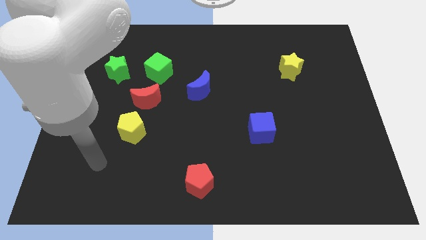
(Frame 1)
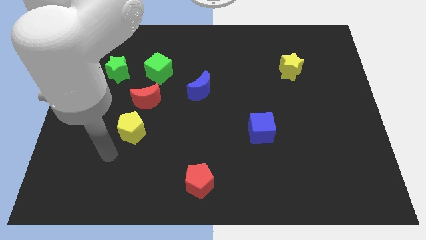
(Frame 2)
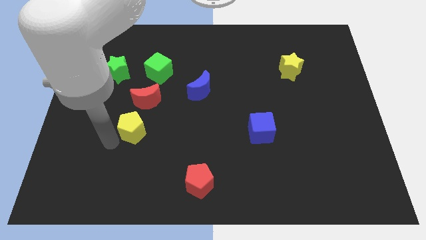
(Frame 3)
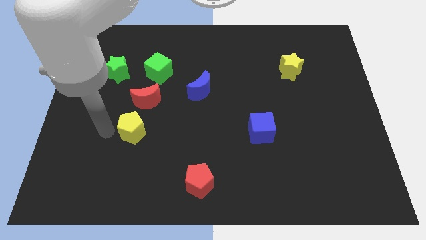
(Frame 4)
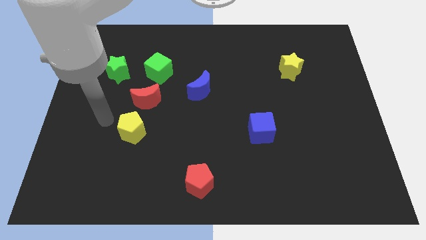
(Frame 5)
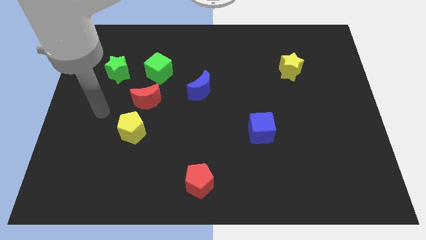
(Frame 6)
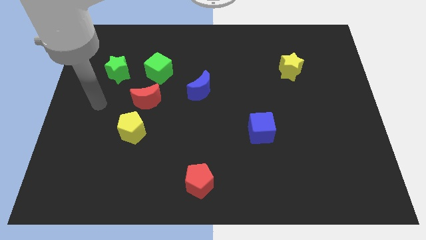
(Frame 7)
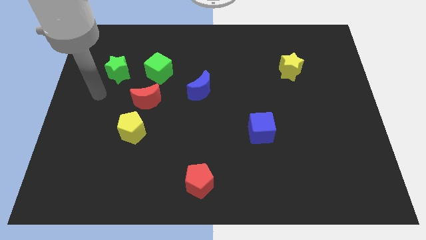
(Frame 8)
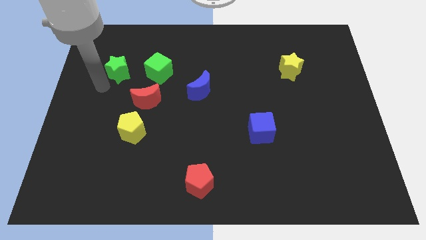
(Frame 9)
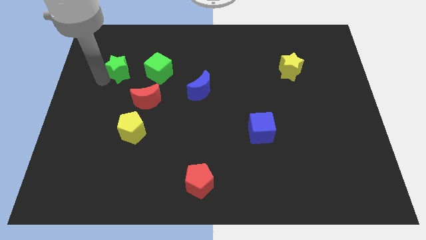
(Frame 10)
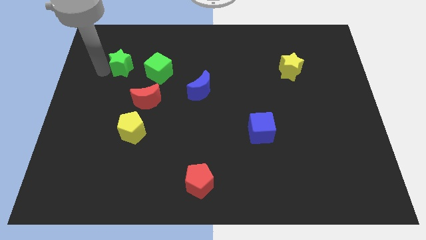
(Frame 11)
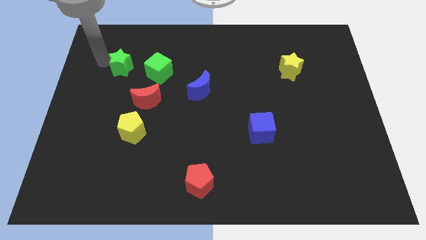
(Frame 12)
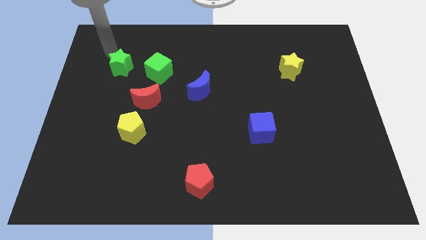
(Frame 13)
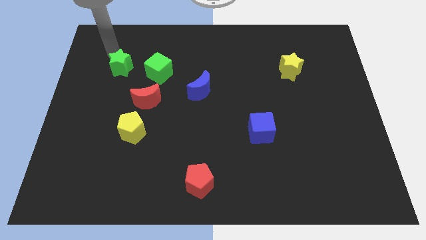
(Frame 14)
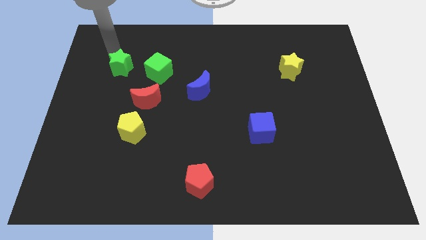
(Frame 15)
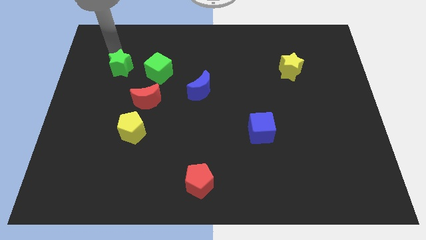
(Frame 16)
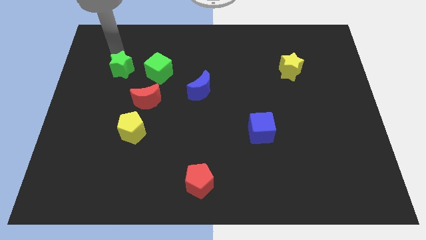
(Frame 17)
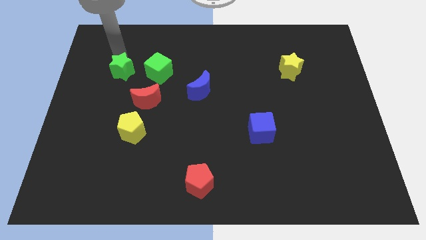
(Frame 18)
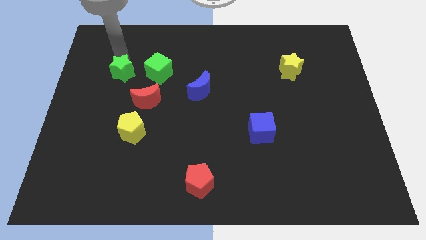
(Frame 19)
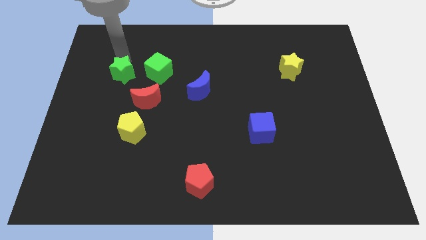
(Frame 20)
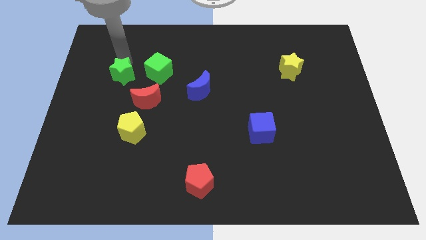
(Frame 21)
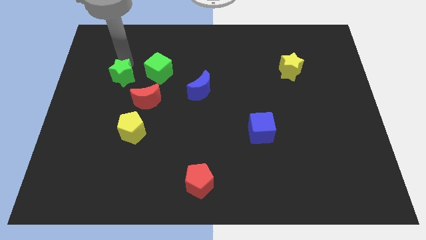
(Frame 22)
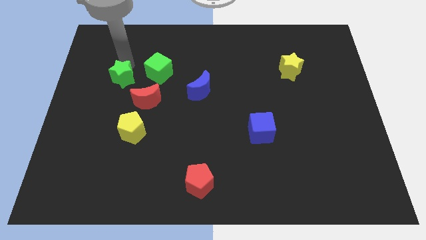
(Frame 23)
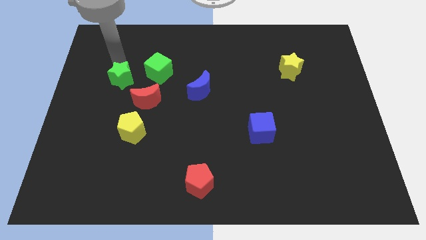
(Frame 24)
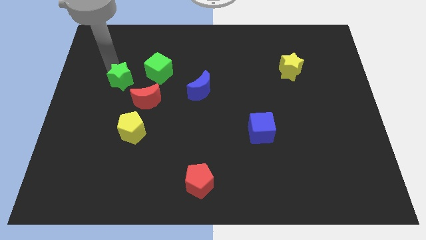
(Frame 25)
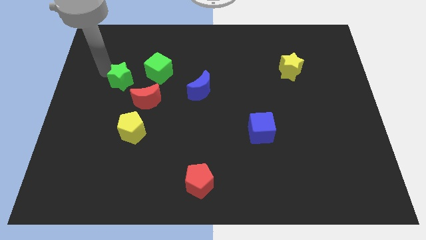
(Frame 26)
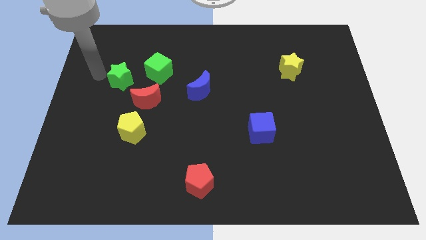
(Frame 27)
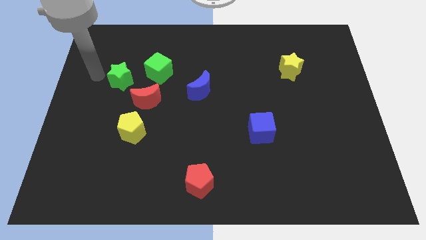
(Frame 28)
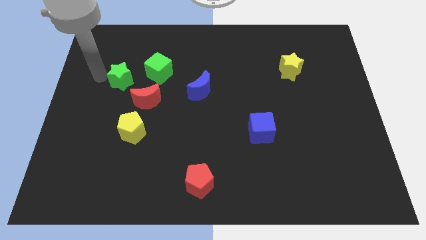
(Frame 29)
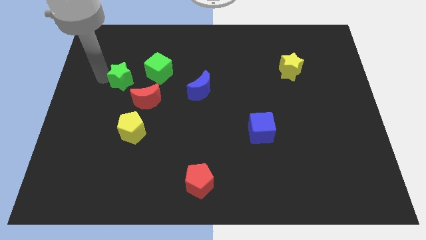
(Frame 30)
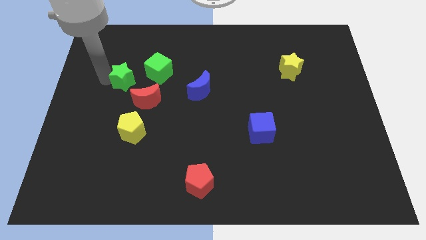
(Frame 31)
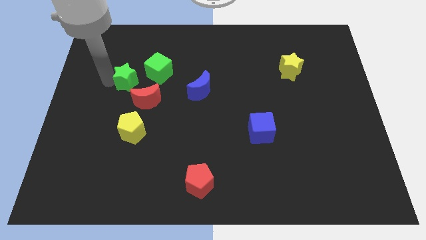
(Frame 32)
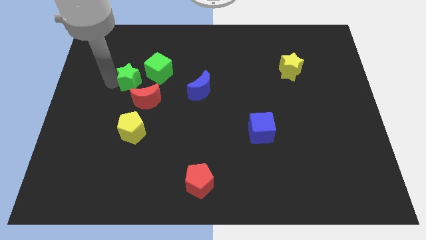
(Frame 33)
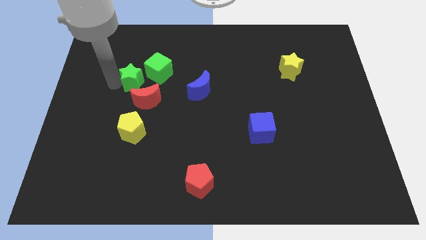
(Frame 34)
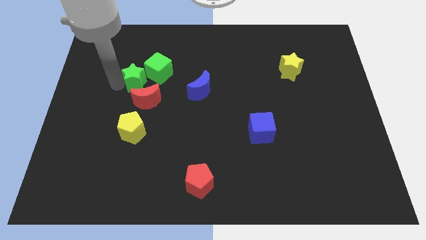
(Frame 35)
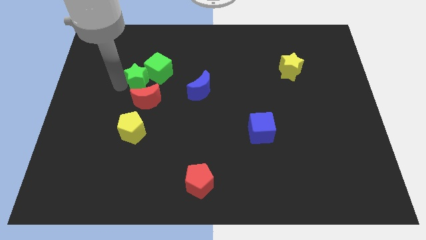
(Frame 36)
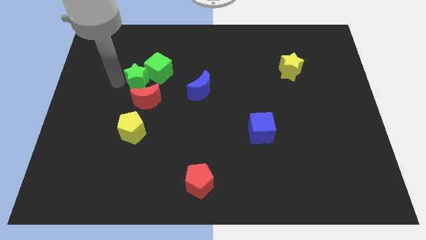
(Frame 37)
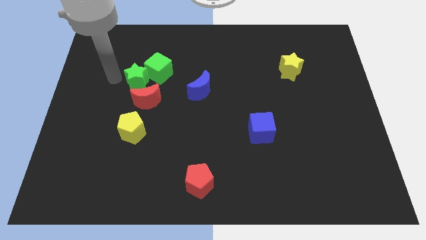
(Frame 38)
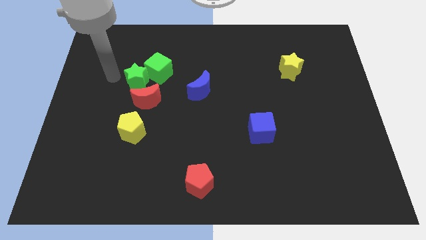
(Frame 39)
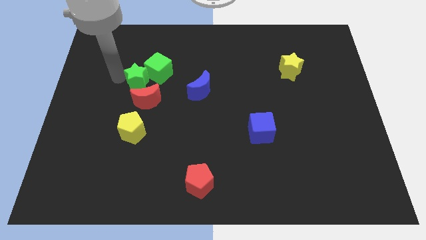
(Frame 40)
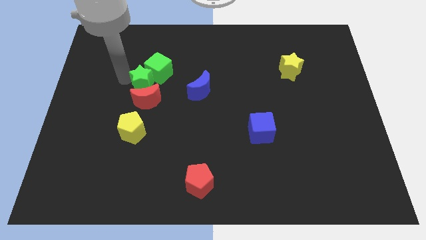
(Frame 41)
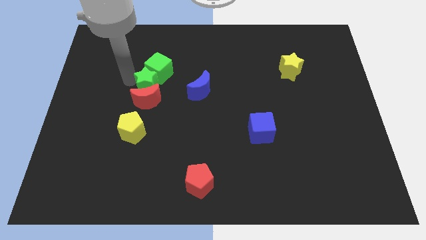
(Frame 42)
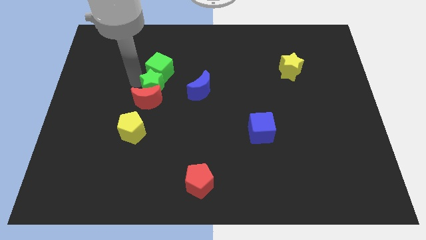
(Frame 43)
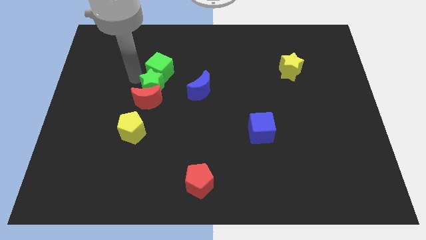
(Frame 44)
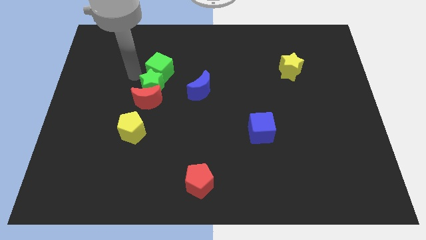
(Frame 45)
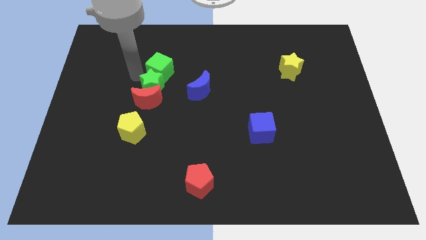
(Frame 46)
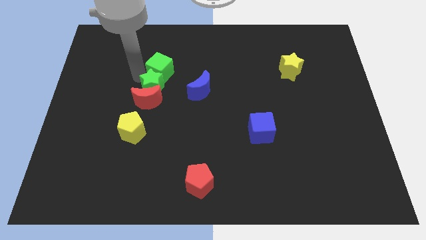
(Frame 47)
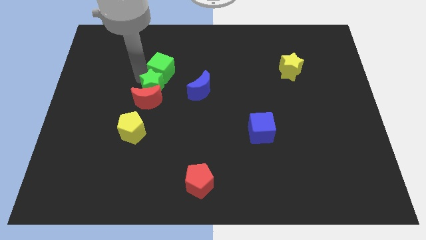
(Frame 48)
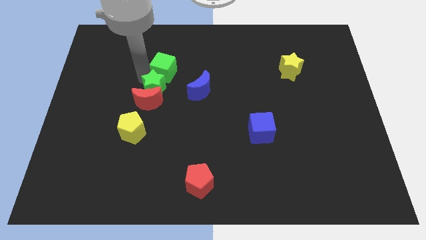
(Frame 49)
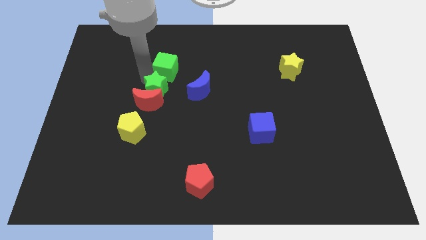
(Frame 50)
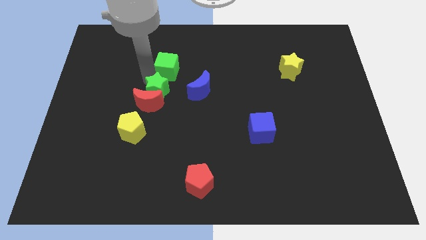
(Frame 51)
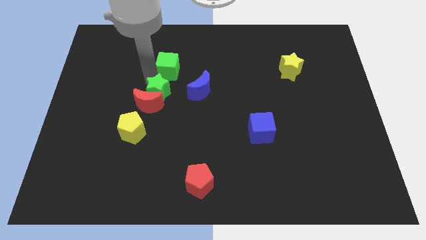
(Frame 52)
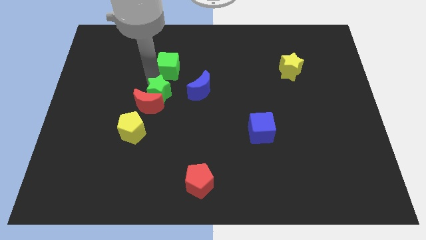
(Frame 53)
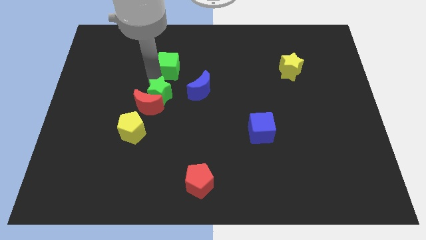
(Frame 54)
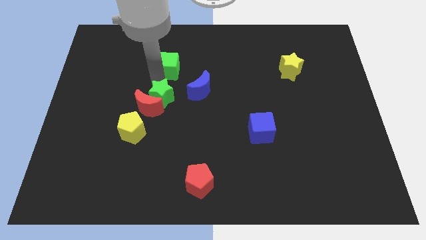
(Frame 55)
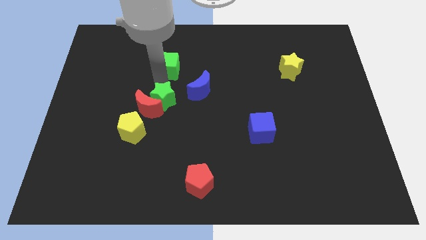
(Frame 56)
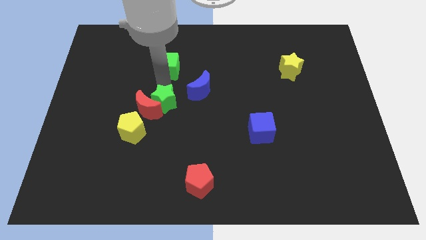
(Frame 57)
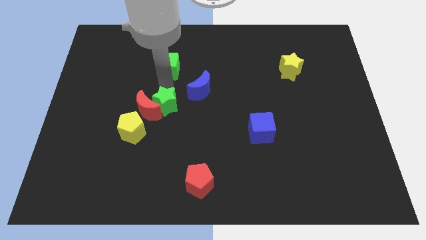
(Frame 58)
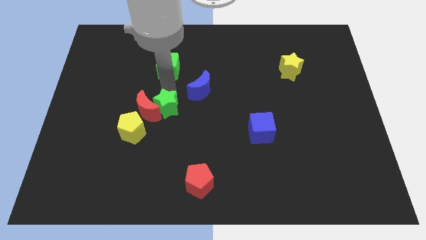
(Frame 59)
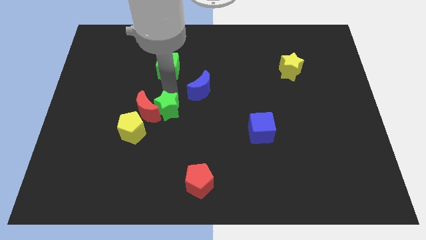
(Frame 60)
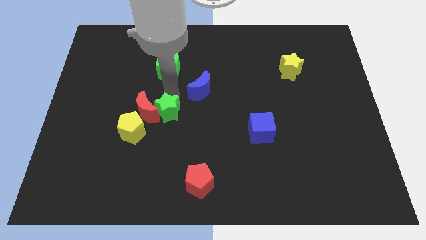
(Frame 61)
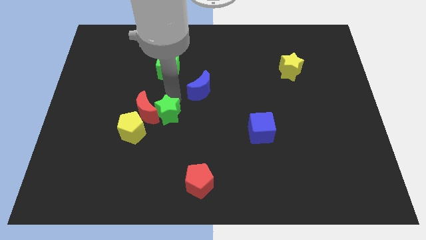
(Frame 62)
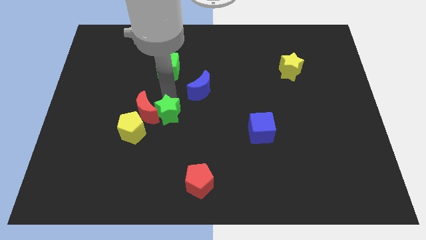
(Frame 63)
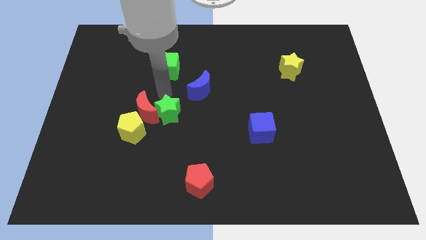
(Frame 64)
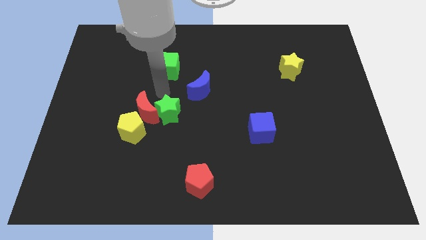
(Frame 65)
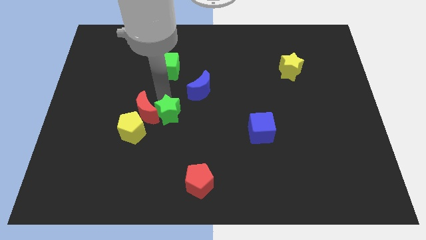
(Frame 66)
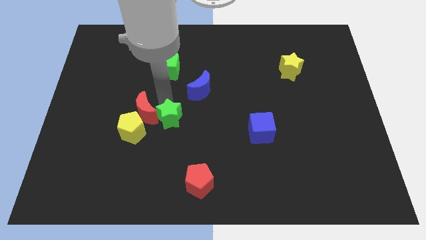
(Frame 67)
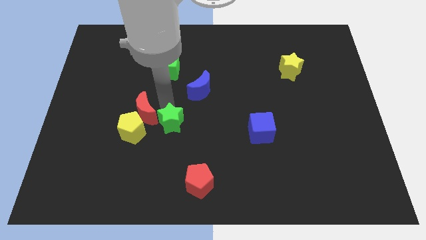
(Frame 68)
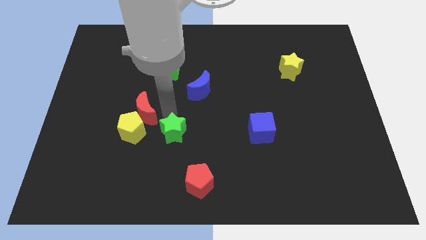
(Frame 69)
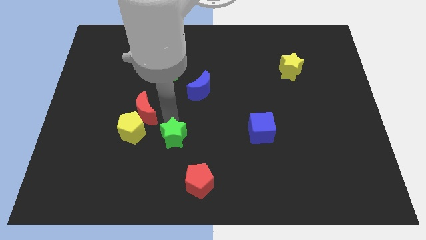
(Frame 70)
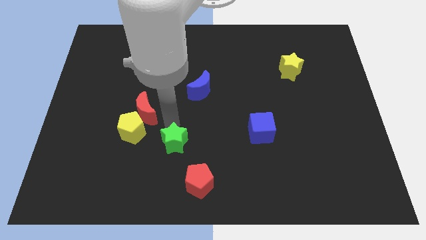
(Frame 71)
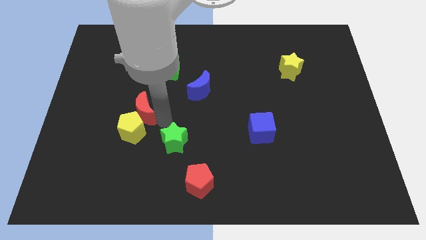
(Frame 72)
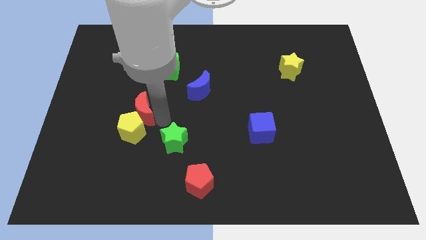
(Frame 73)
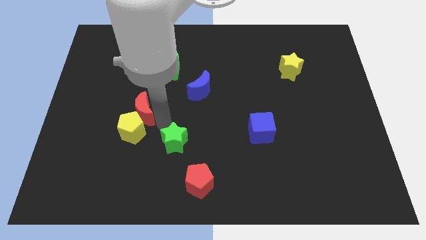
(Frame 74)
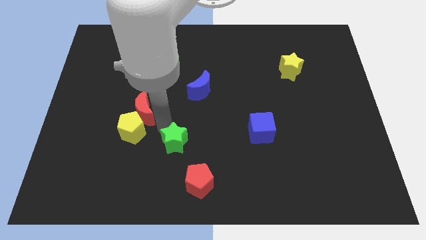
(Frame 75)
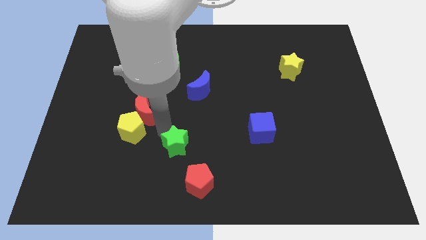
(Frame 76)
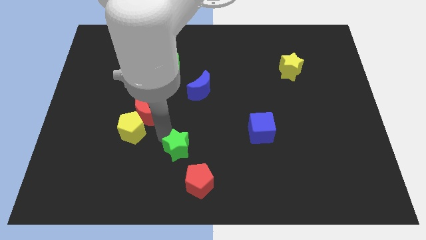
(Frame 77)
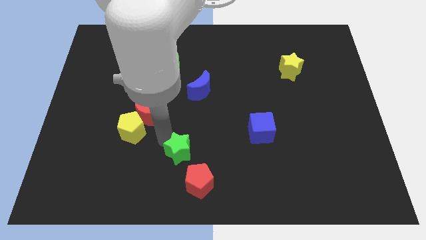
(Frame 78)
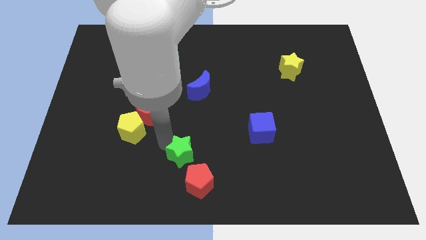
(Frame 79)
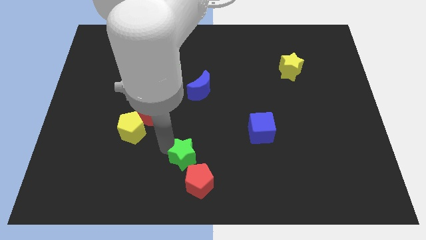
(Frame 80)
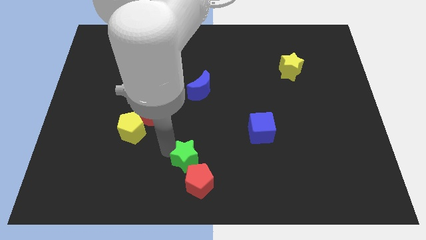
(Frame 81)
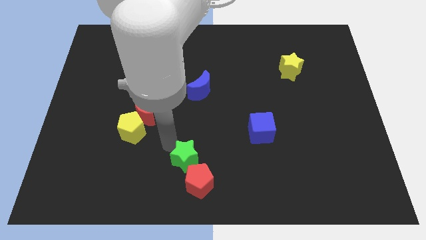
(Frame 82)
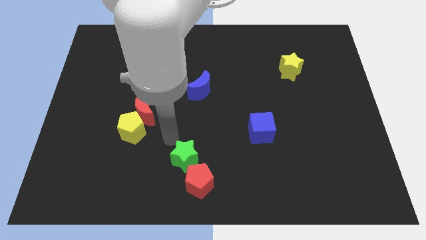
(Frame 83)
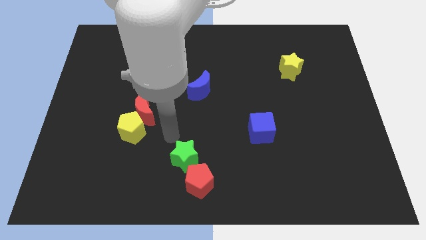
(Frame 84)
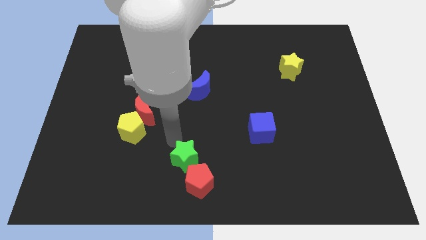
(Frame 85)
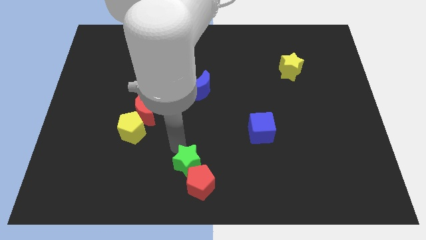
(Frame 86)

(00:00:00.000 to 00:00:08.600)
put the green star towards the red pentagon
